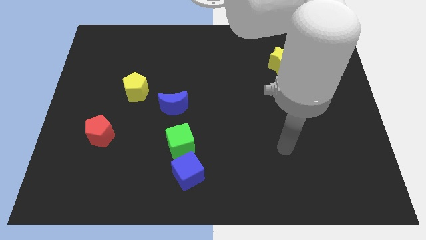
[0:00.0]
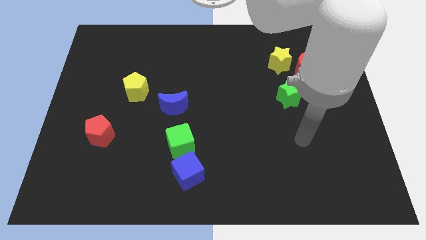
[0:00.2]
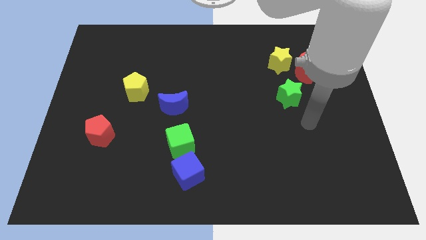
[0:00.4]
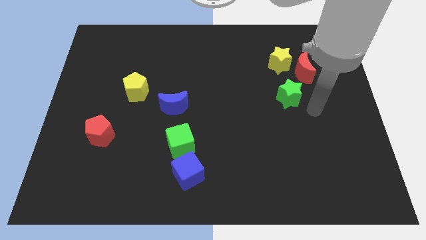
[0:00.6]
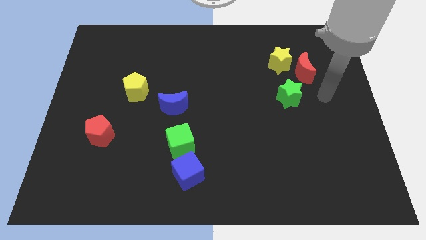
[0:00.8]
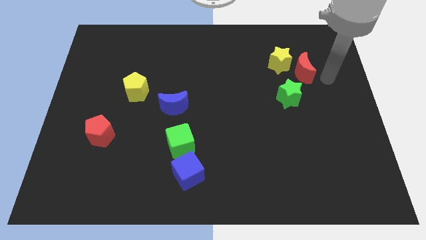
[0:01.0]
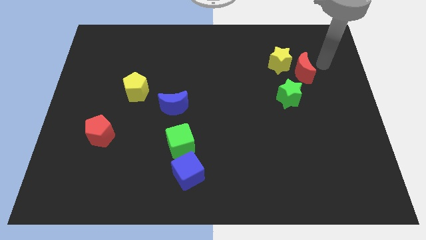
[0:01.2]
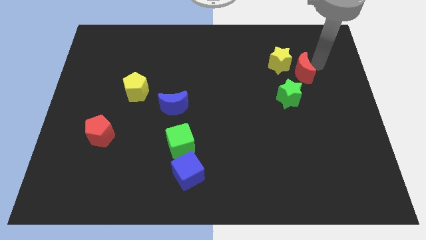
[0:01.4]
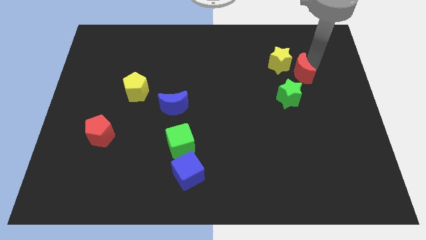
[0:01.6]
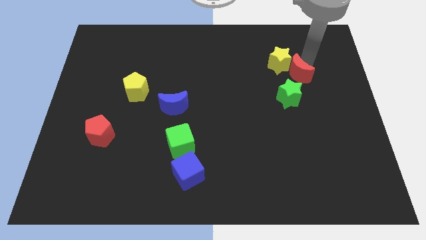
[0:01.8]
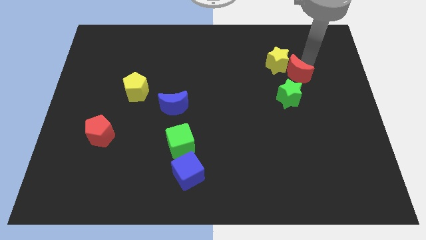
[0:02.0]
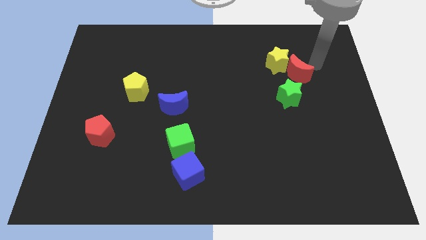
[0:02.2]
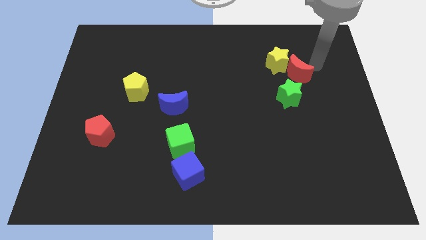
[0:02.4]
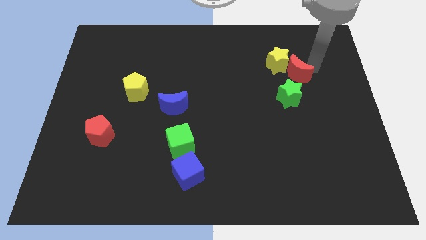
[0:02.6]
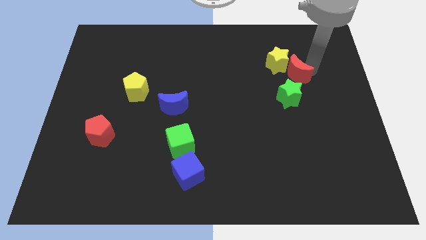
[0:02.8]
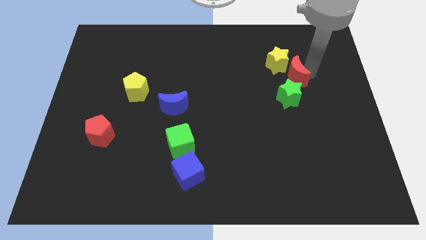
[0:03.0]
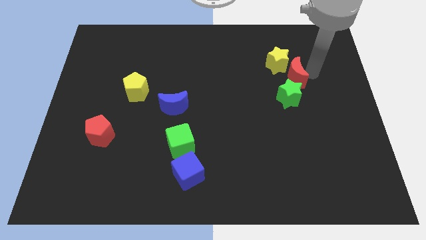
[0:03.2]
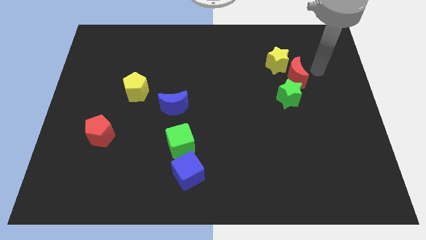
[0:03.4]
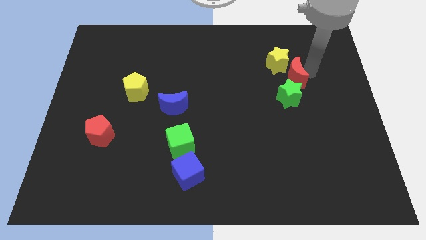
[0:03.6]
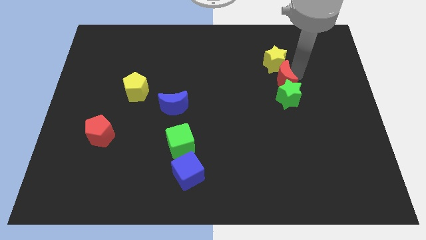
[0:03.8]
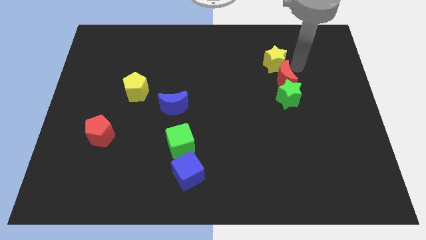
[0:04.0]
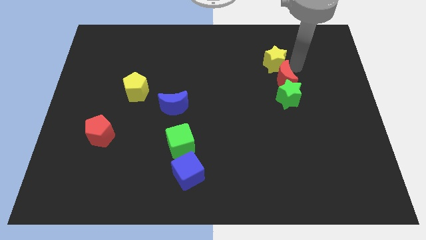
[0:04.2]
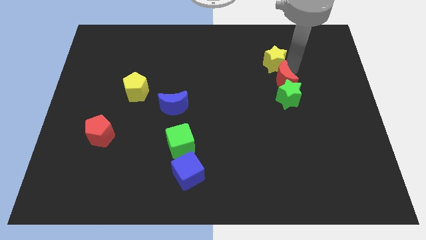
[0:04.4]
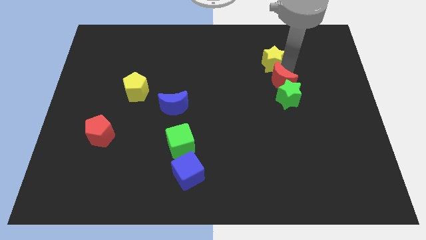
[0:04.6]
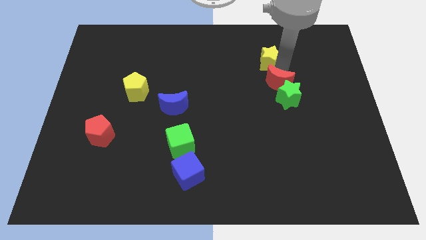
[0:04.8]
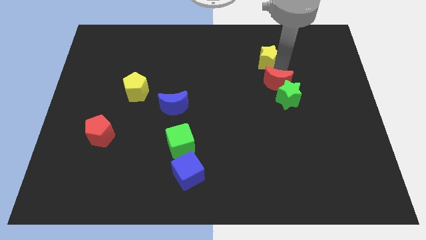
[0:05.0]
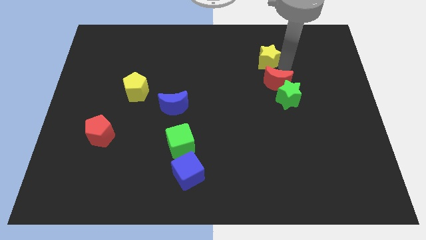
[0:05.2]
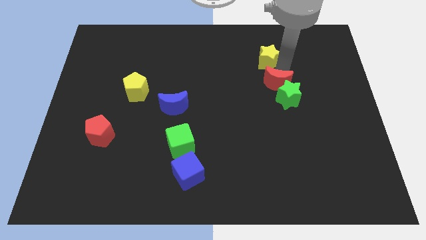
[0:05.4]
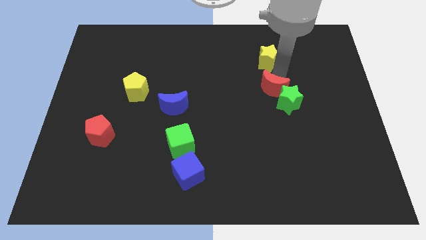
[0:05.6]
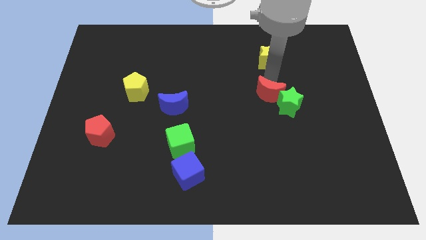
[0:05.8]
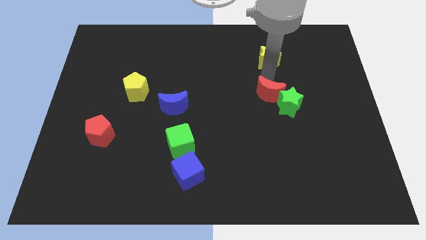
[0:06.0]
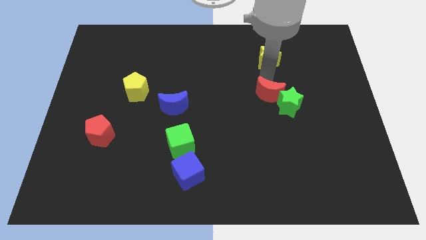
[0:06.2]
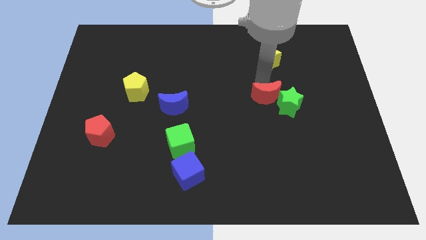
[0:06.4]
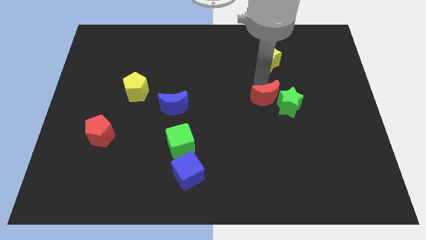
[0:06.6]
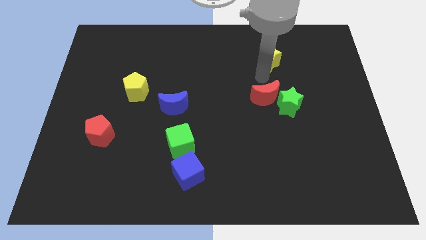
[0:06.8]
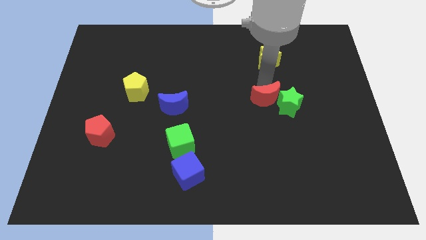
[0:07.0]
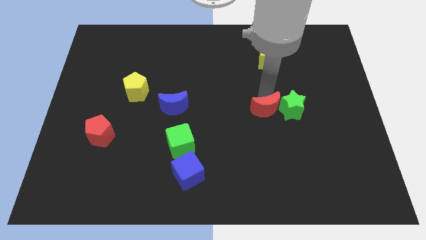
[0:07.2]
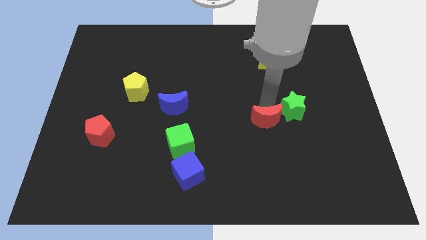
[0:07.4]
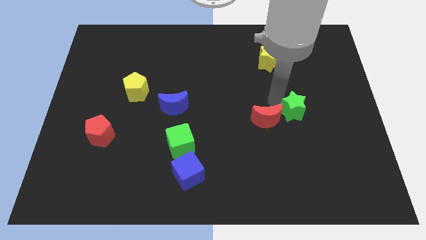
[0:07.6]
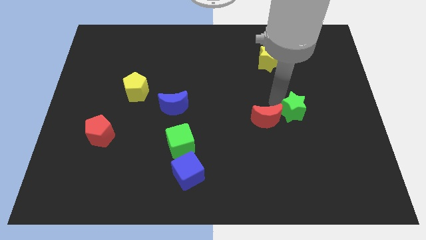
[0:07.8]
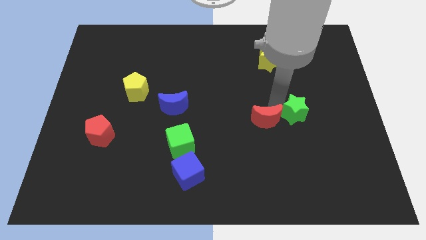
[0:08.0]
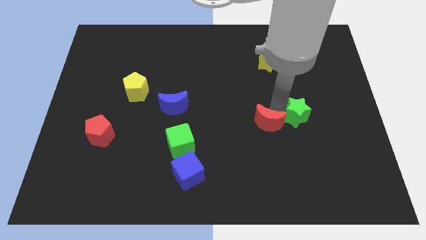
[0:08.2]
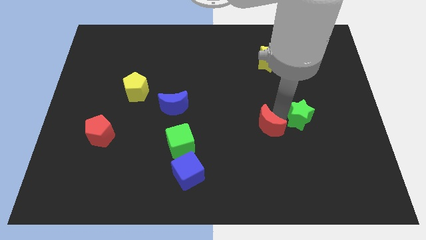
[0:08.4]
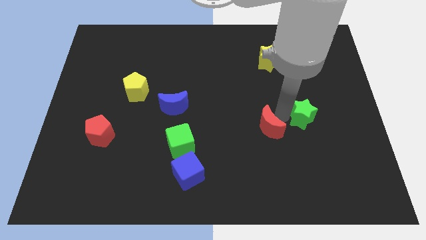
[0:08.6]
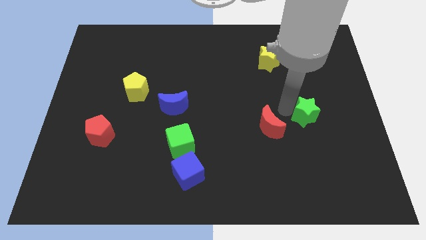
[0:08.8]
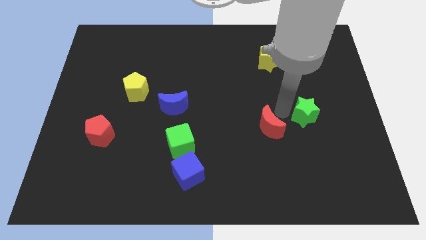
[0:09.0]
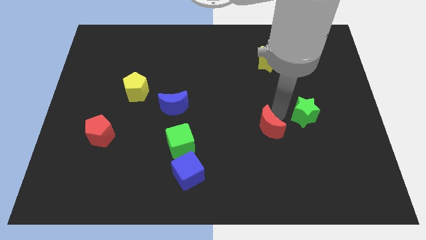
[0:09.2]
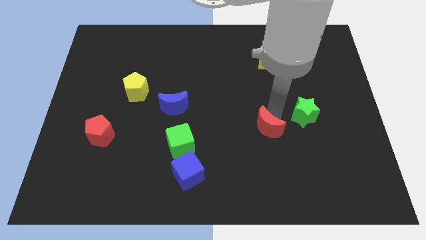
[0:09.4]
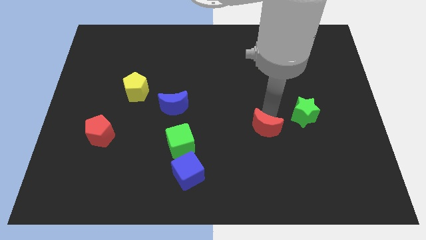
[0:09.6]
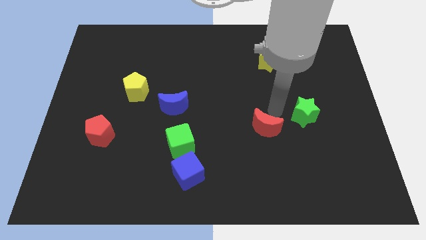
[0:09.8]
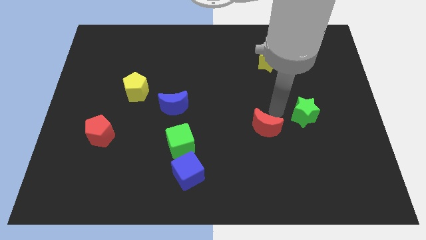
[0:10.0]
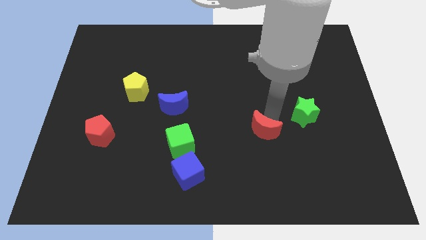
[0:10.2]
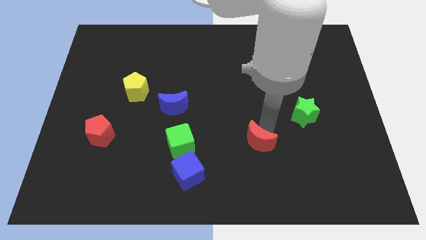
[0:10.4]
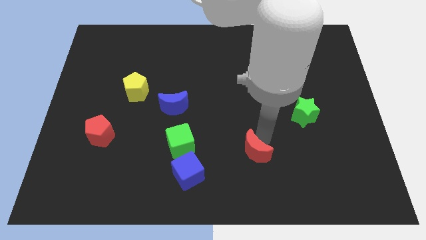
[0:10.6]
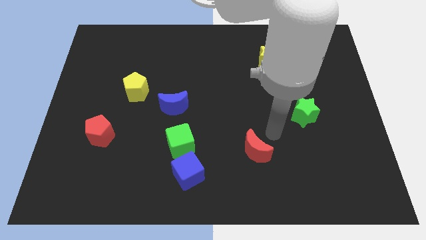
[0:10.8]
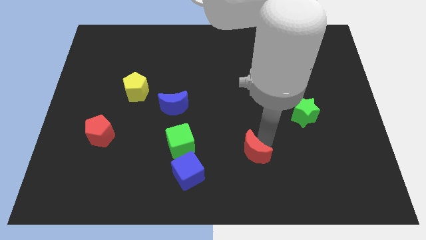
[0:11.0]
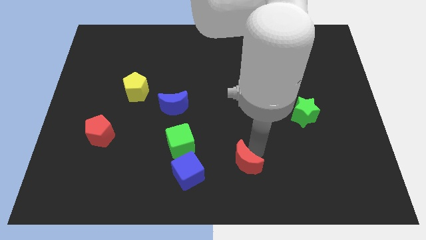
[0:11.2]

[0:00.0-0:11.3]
push the red moon to the bottom side

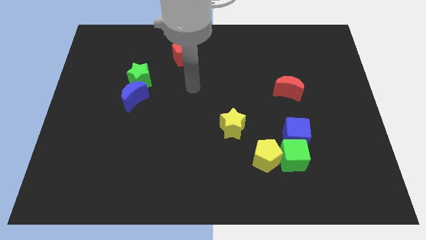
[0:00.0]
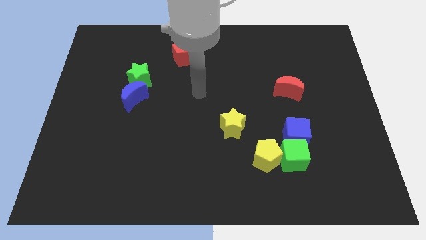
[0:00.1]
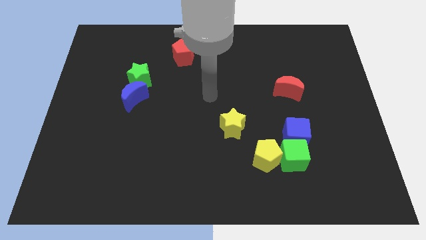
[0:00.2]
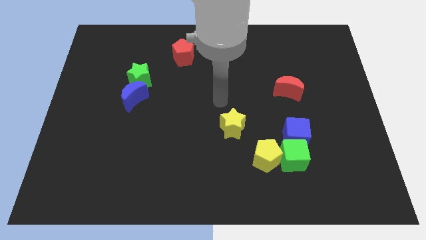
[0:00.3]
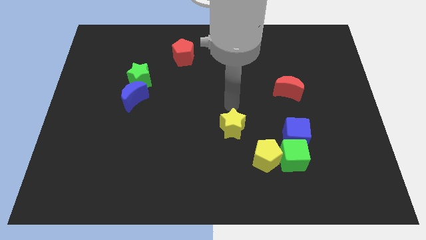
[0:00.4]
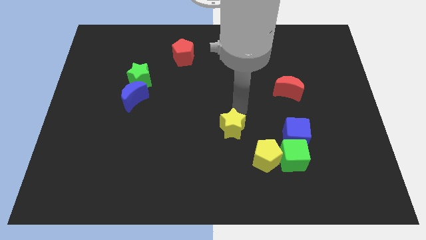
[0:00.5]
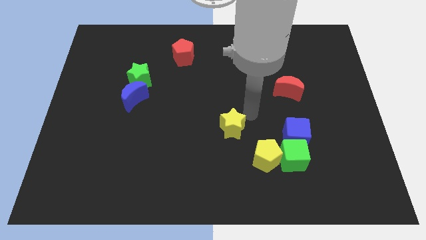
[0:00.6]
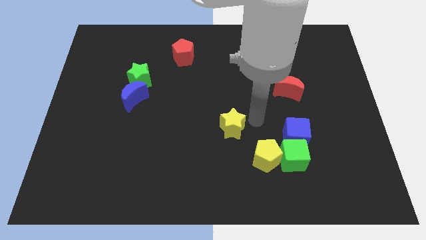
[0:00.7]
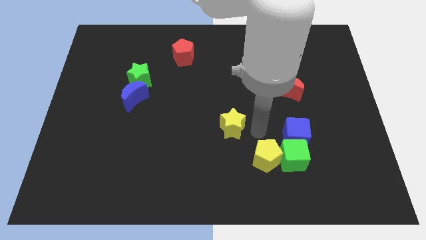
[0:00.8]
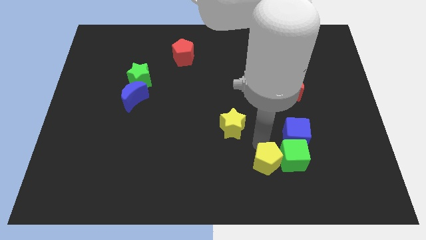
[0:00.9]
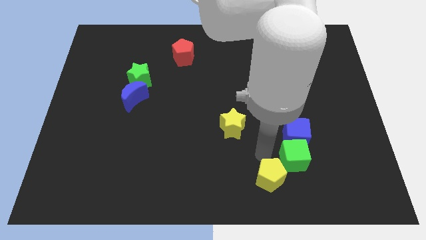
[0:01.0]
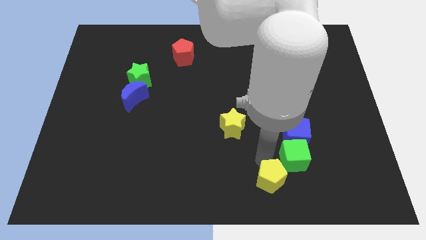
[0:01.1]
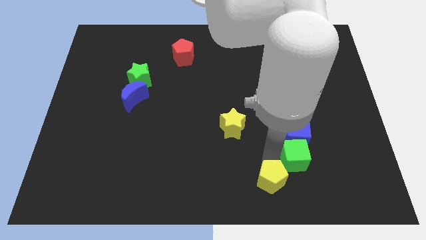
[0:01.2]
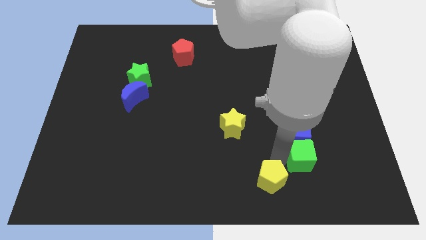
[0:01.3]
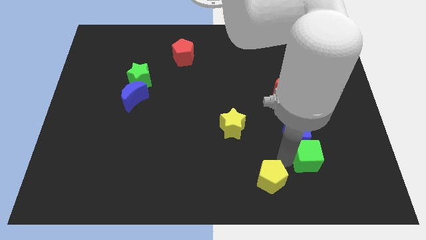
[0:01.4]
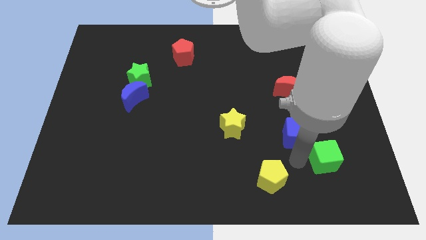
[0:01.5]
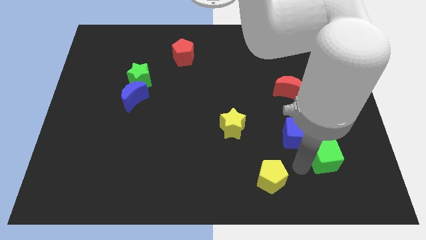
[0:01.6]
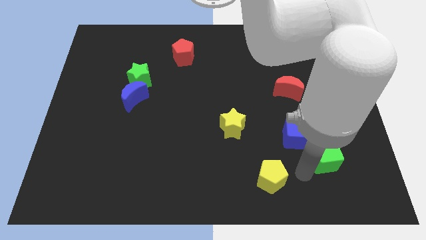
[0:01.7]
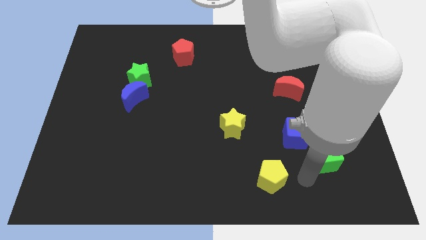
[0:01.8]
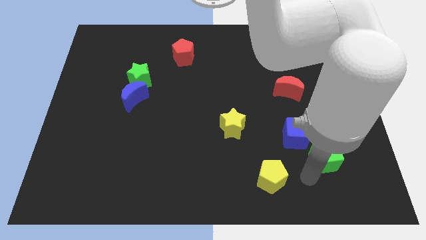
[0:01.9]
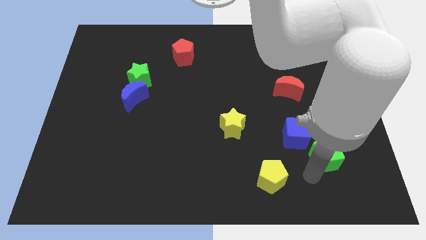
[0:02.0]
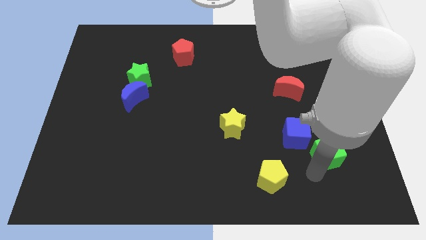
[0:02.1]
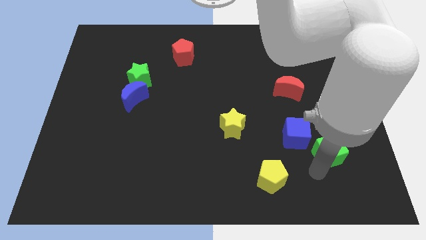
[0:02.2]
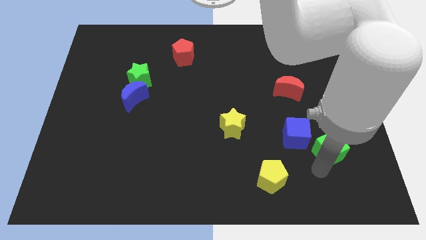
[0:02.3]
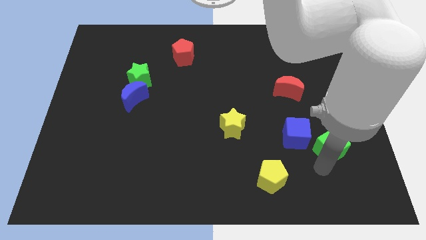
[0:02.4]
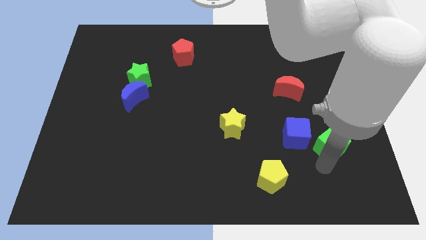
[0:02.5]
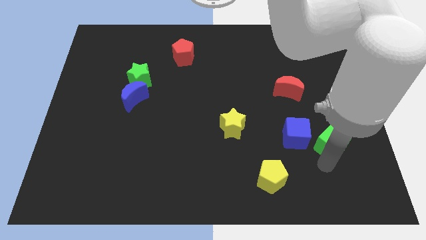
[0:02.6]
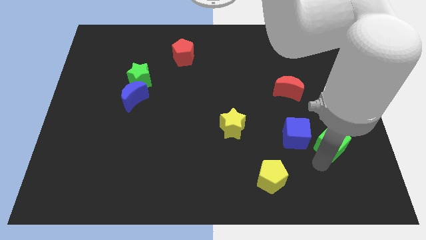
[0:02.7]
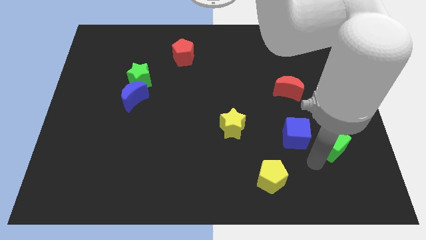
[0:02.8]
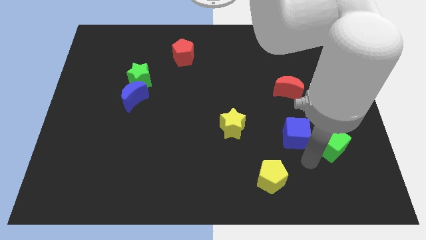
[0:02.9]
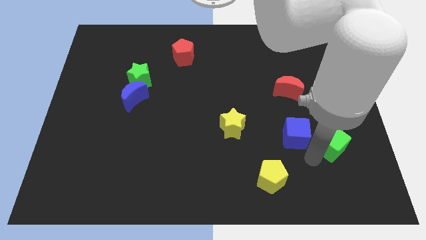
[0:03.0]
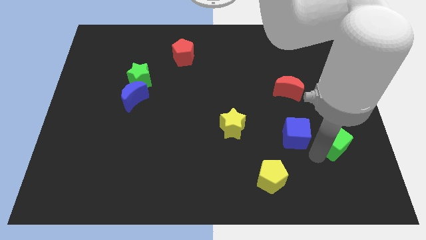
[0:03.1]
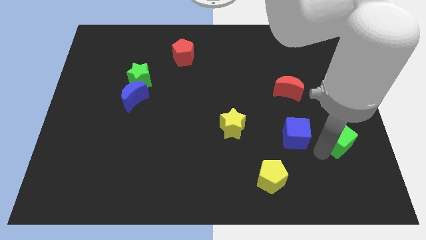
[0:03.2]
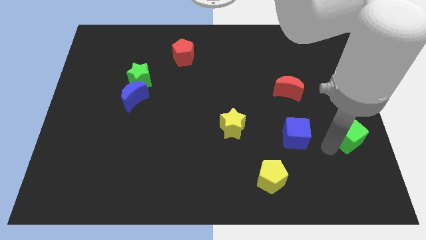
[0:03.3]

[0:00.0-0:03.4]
put the green cube to the right side
